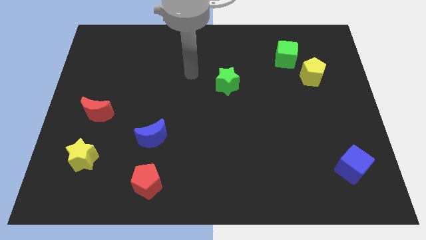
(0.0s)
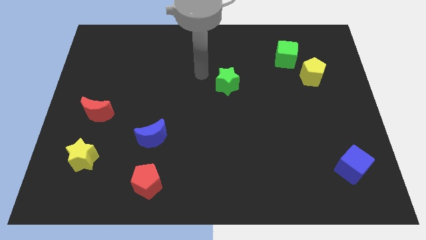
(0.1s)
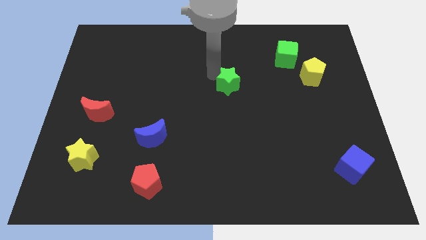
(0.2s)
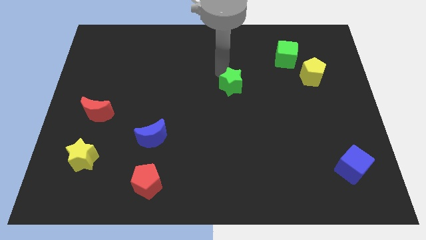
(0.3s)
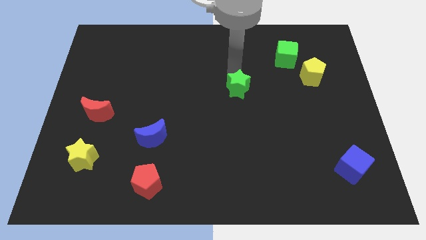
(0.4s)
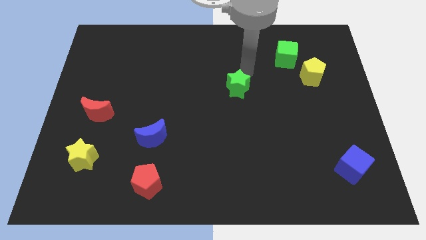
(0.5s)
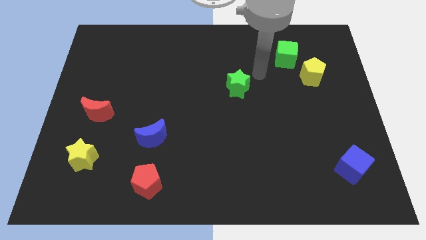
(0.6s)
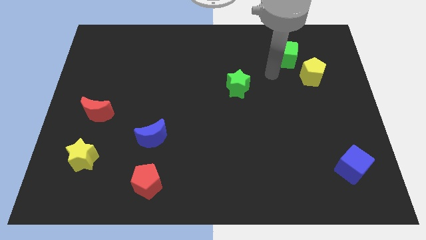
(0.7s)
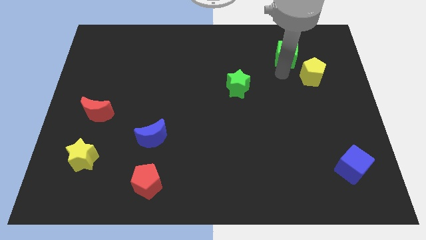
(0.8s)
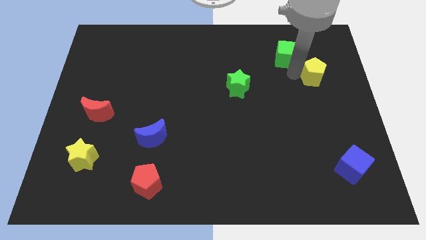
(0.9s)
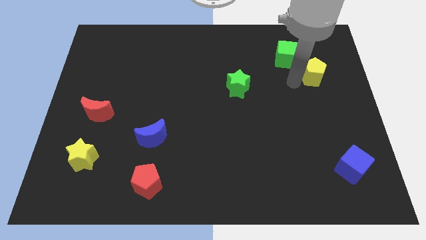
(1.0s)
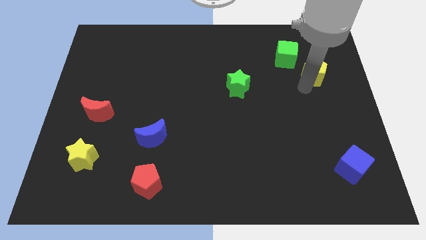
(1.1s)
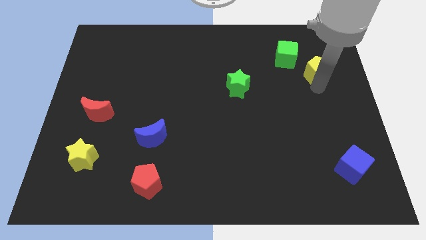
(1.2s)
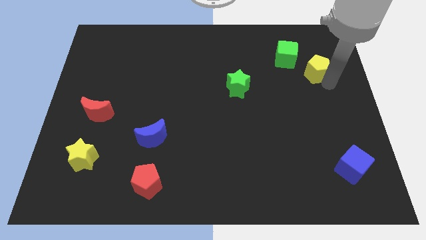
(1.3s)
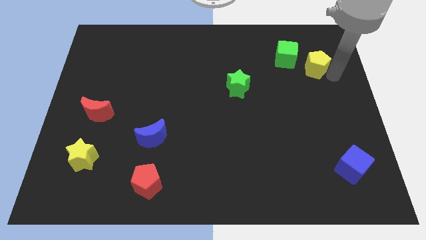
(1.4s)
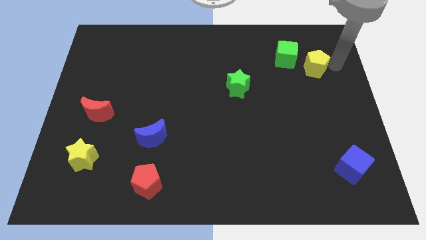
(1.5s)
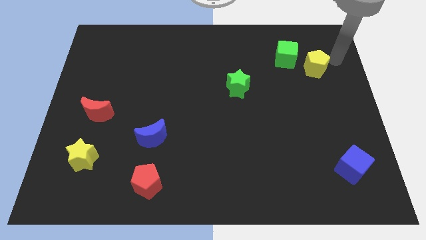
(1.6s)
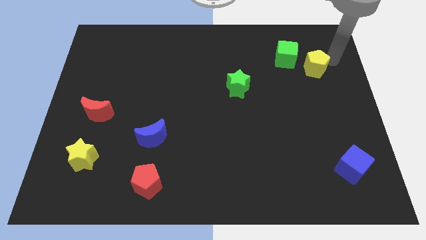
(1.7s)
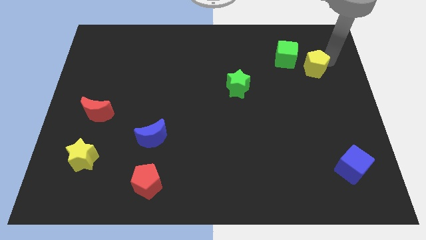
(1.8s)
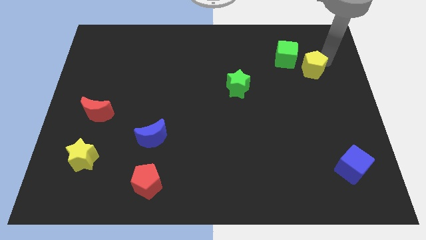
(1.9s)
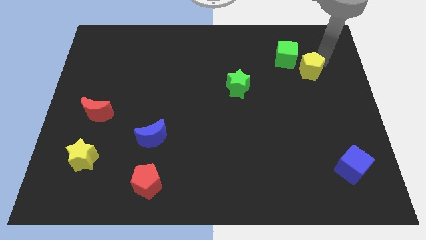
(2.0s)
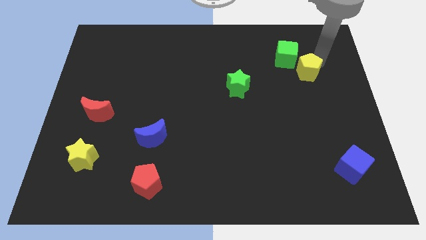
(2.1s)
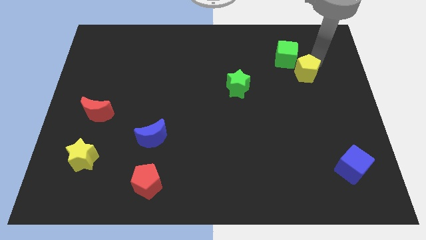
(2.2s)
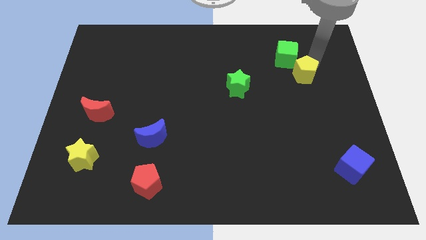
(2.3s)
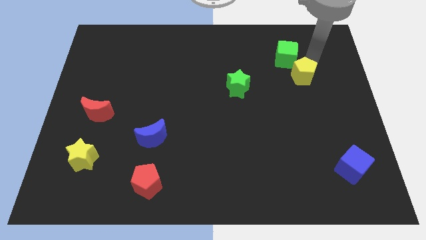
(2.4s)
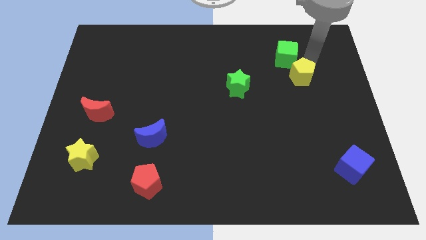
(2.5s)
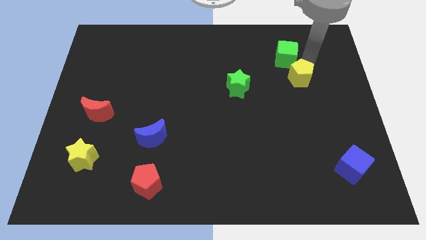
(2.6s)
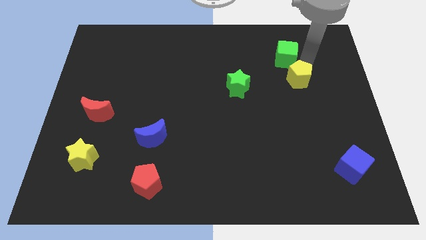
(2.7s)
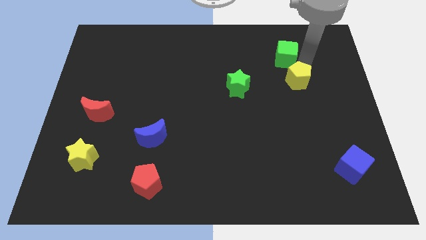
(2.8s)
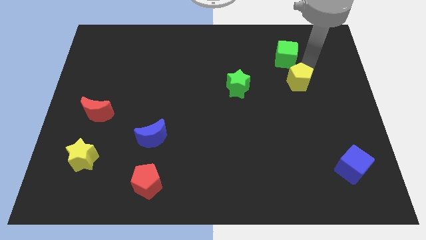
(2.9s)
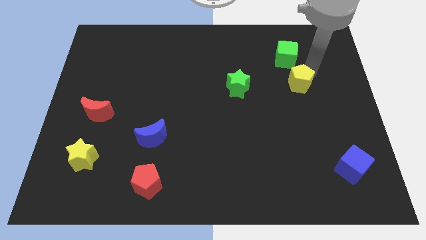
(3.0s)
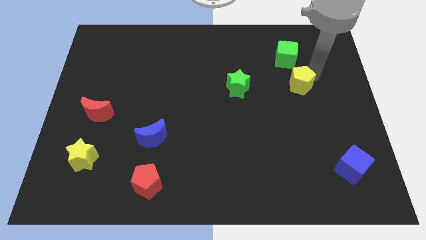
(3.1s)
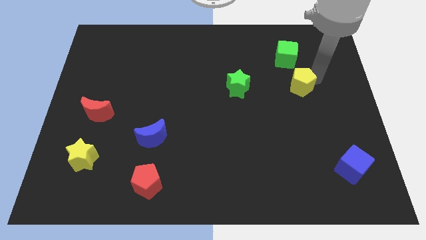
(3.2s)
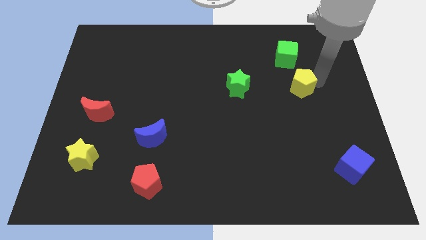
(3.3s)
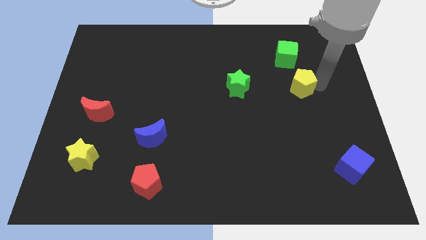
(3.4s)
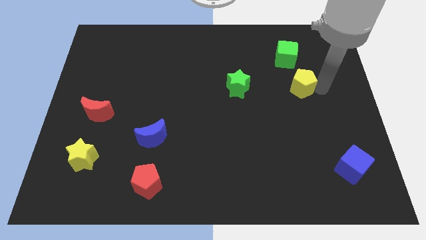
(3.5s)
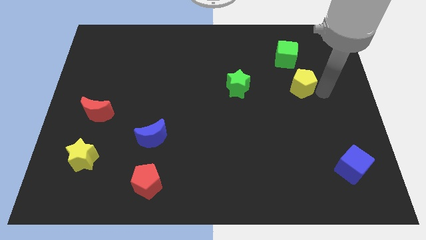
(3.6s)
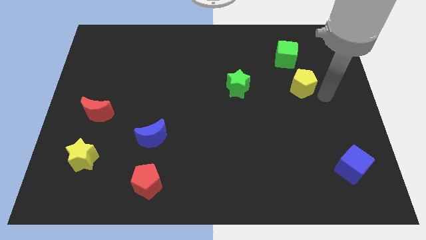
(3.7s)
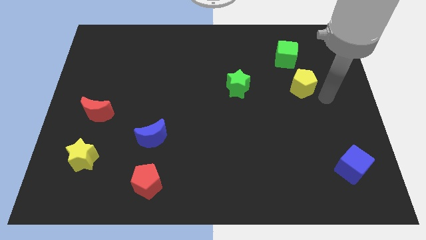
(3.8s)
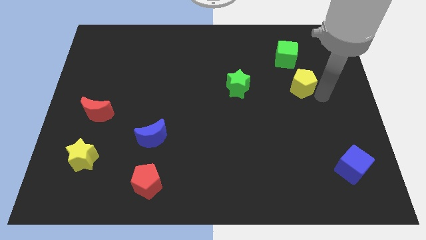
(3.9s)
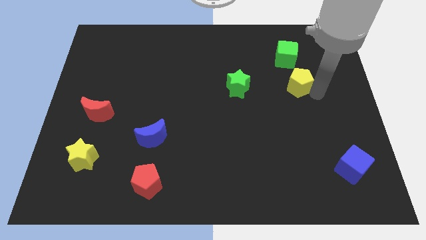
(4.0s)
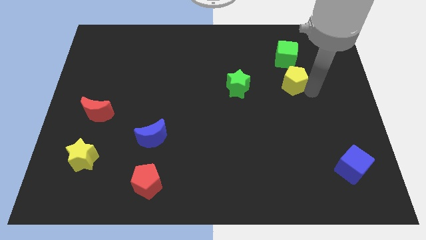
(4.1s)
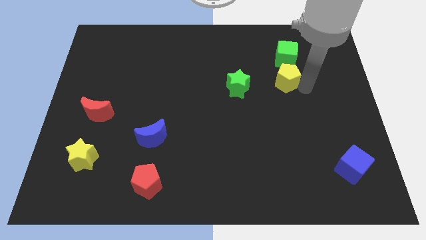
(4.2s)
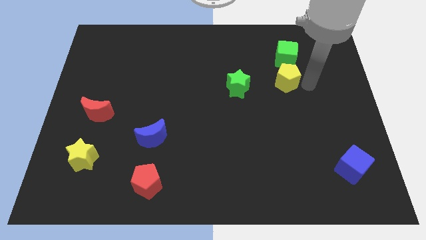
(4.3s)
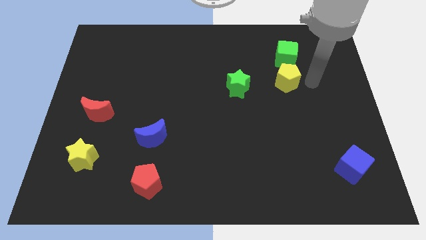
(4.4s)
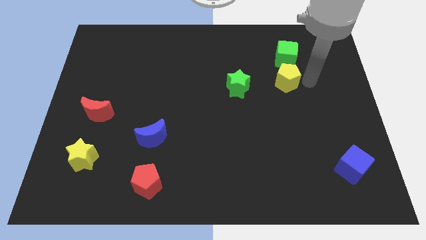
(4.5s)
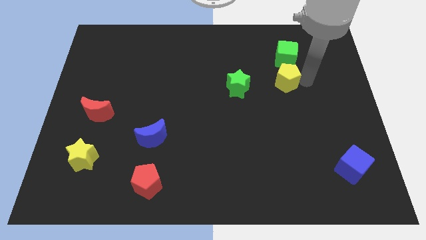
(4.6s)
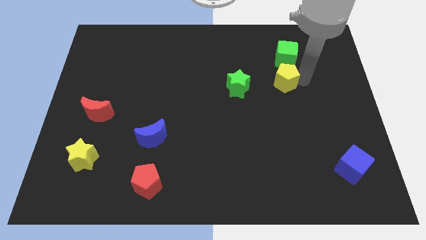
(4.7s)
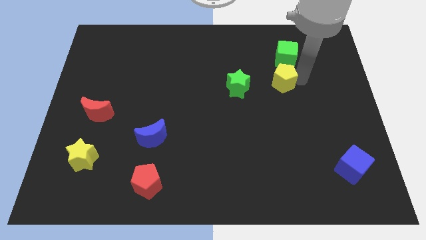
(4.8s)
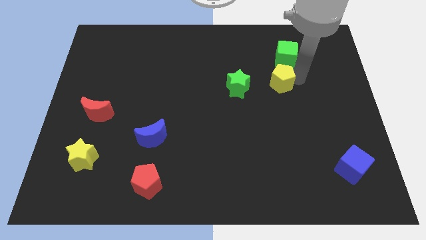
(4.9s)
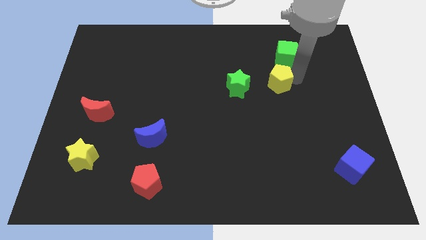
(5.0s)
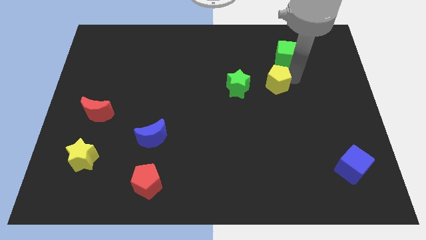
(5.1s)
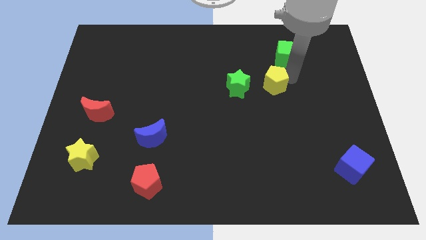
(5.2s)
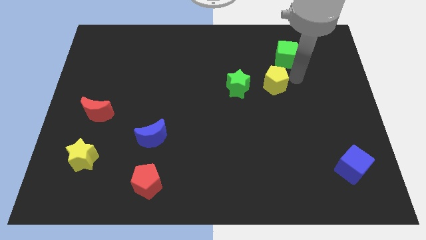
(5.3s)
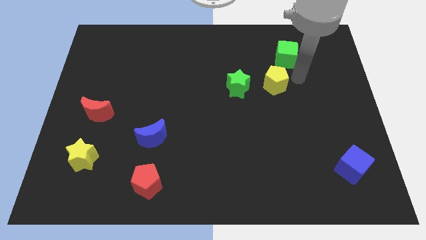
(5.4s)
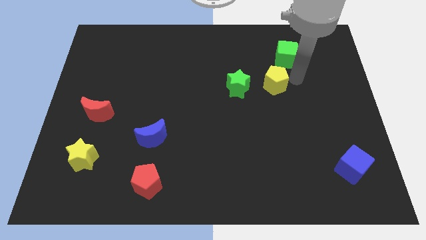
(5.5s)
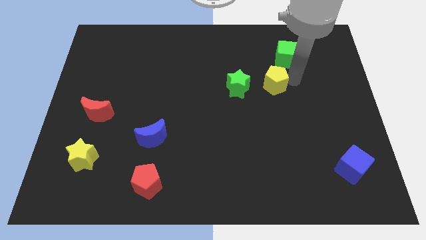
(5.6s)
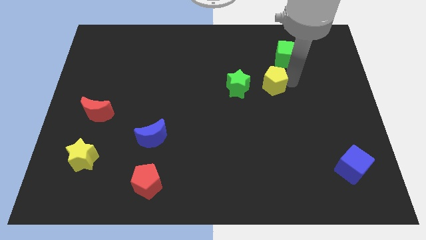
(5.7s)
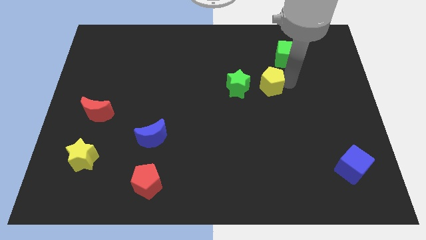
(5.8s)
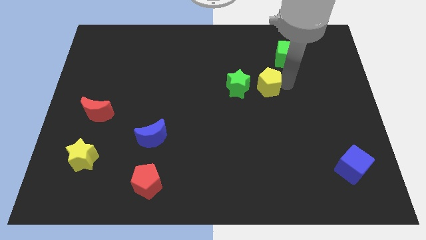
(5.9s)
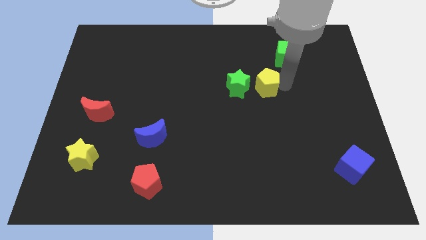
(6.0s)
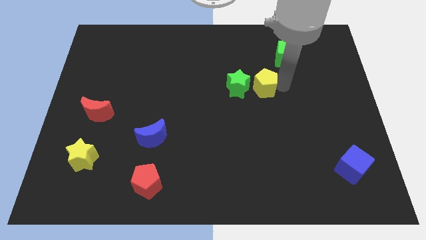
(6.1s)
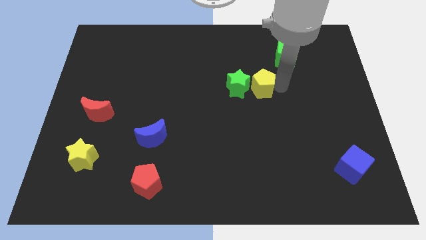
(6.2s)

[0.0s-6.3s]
move the yellow pentagon to the middle of the board
